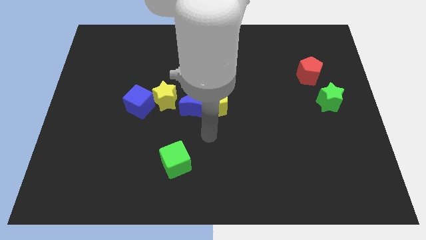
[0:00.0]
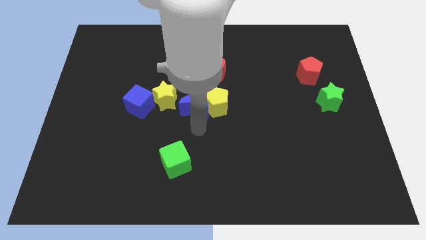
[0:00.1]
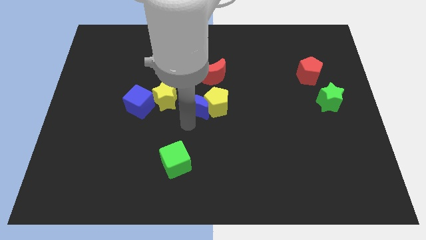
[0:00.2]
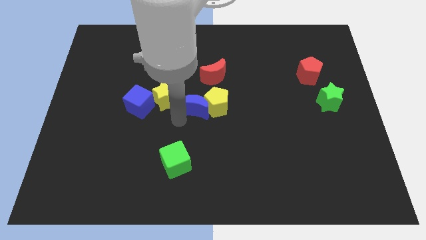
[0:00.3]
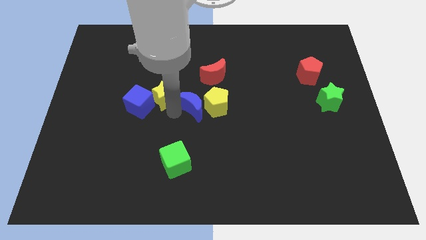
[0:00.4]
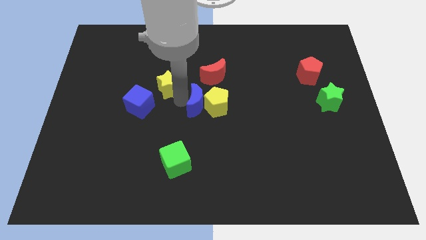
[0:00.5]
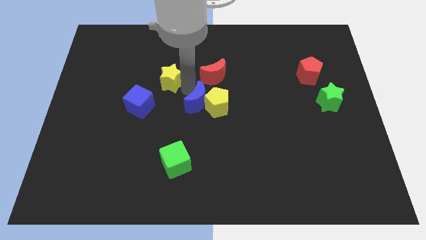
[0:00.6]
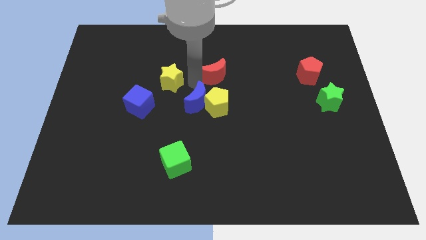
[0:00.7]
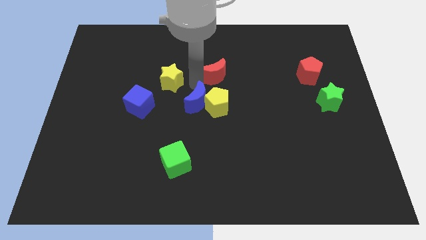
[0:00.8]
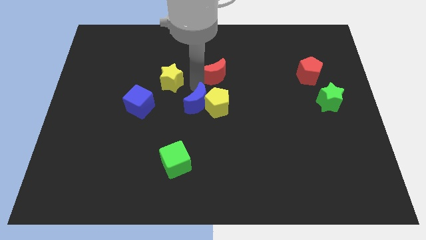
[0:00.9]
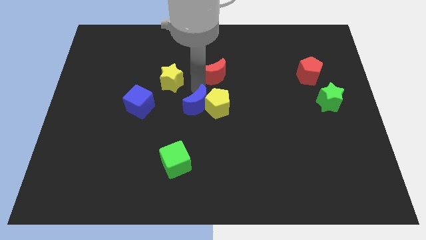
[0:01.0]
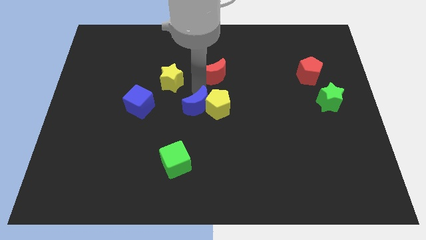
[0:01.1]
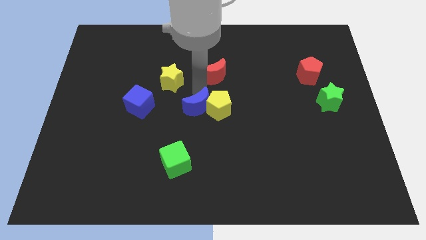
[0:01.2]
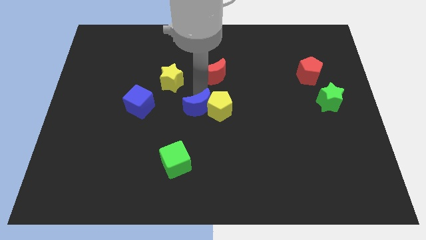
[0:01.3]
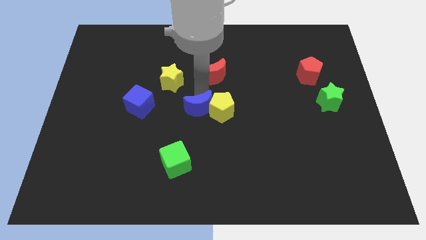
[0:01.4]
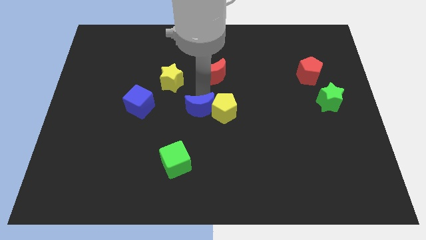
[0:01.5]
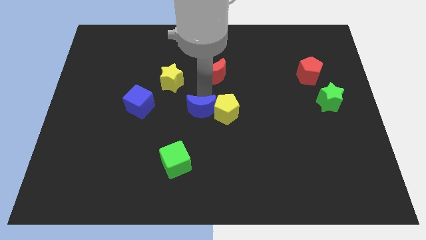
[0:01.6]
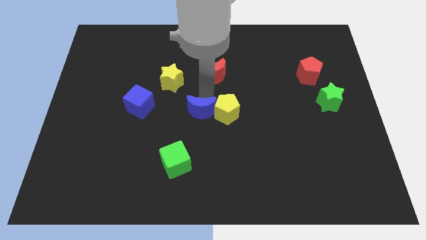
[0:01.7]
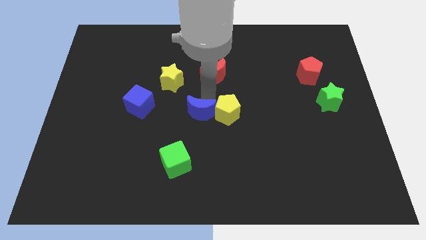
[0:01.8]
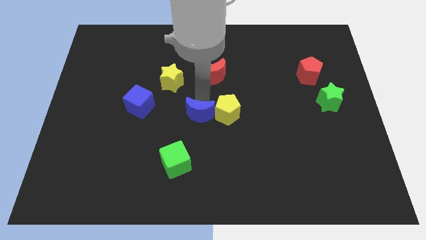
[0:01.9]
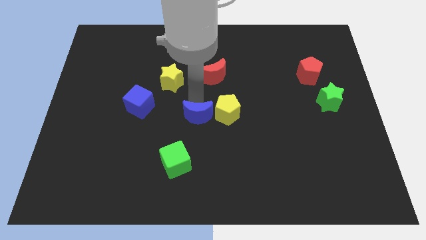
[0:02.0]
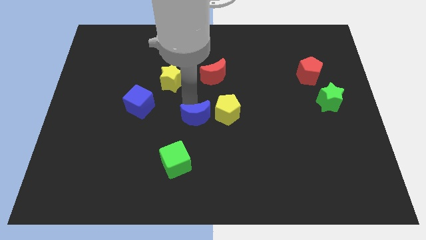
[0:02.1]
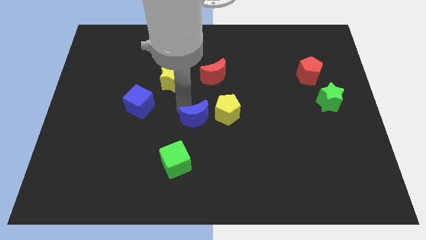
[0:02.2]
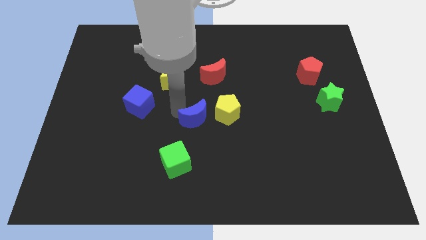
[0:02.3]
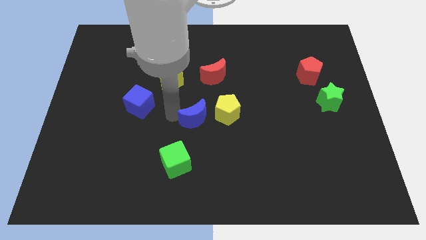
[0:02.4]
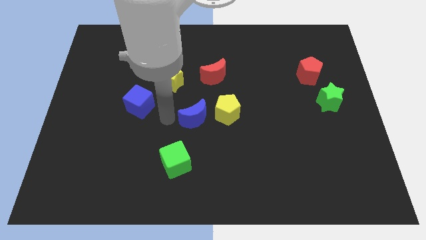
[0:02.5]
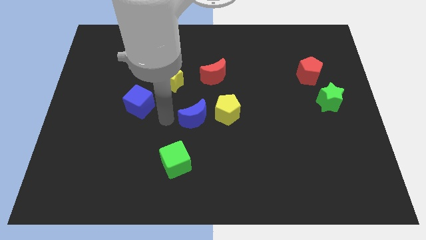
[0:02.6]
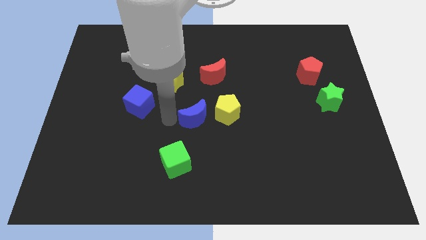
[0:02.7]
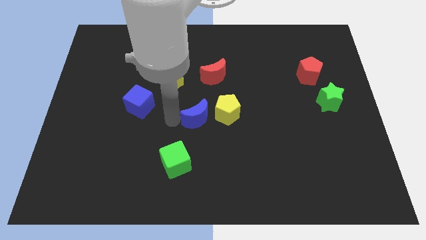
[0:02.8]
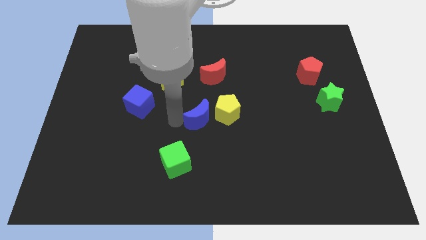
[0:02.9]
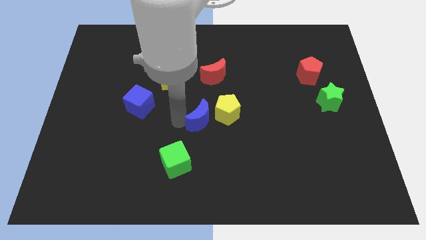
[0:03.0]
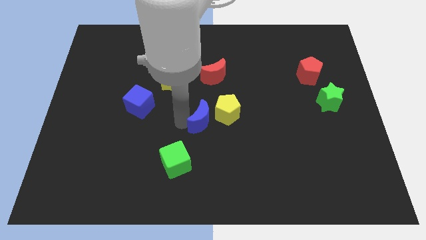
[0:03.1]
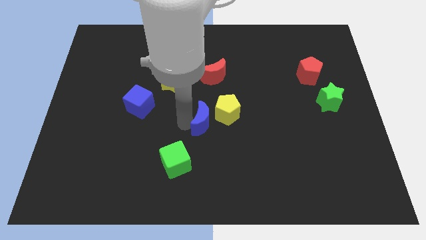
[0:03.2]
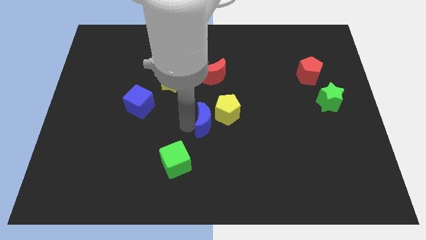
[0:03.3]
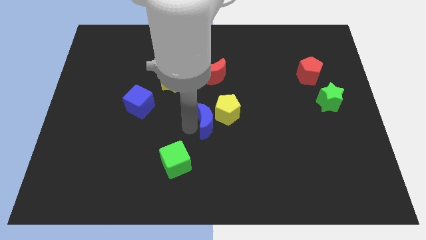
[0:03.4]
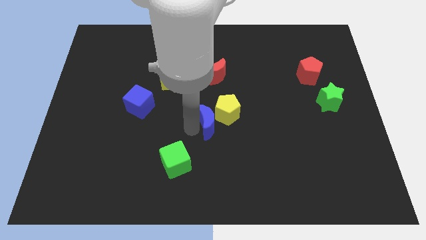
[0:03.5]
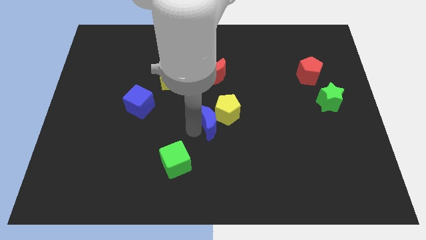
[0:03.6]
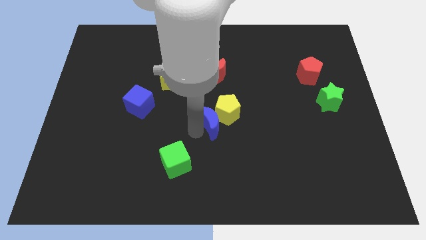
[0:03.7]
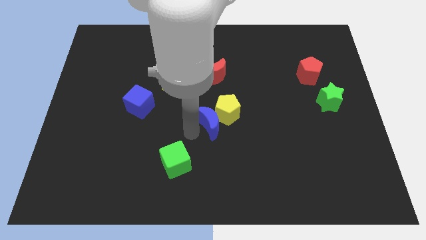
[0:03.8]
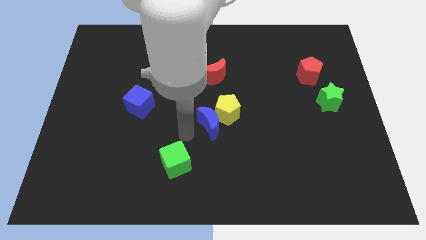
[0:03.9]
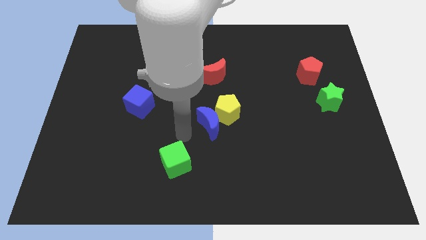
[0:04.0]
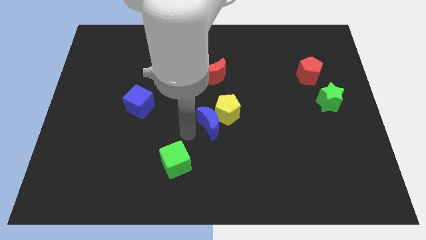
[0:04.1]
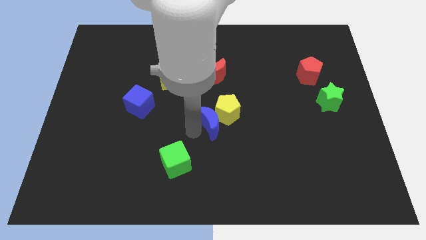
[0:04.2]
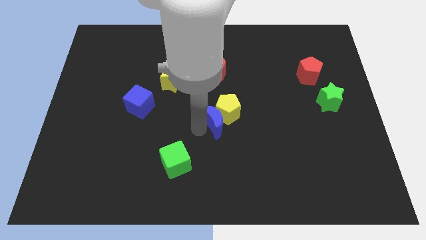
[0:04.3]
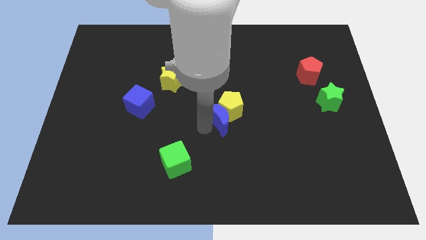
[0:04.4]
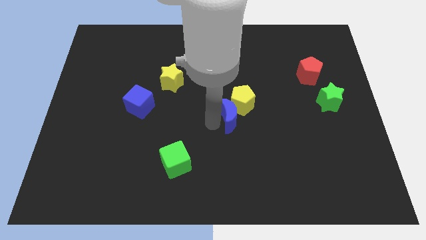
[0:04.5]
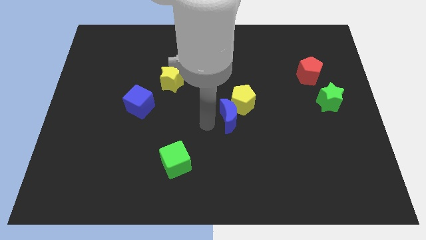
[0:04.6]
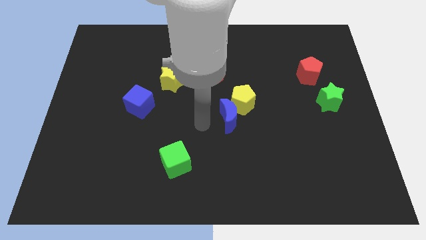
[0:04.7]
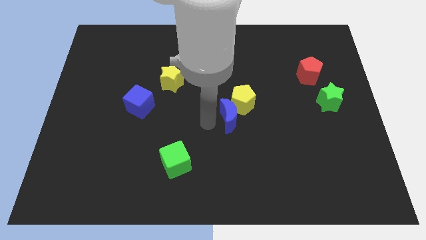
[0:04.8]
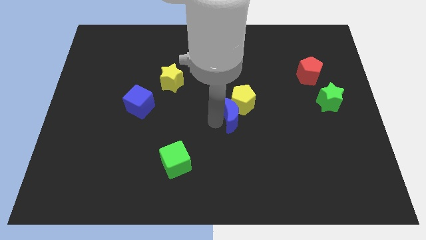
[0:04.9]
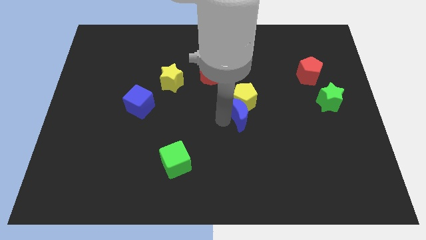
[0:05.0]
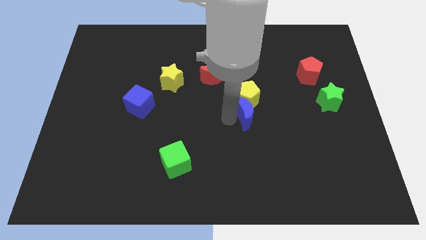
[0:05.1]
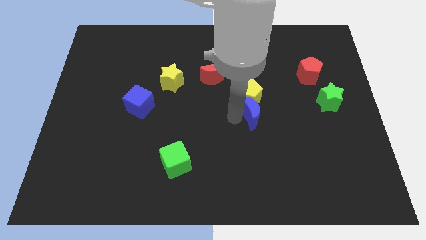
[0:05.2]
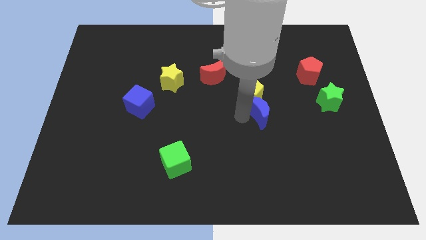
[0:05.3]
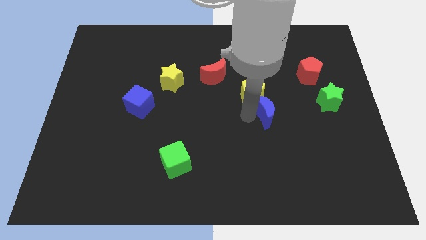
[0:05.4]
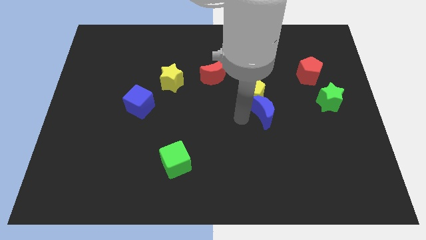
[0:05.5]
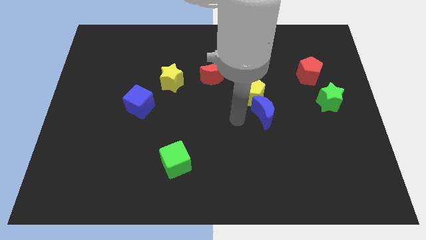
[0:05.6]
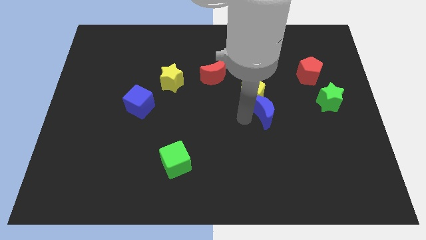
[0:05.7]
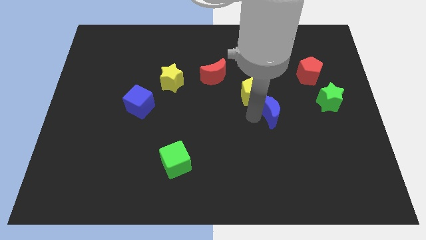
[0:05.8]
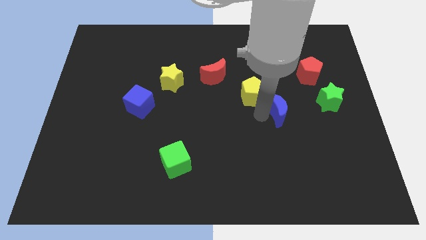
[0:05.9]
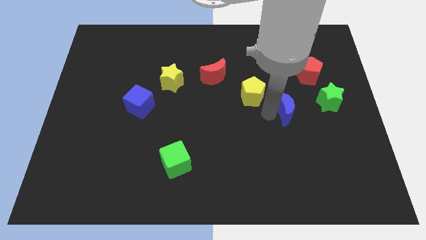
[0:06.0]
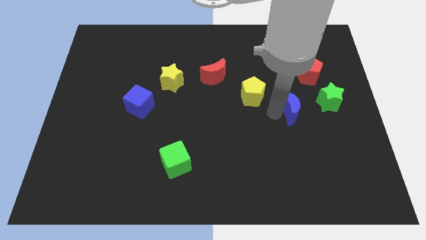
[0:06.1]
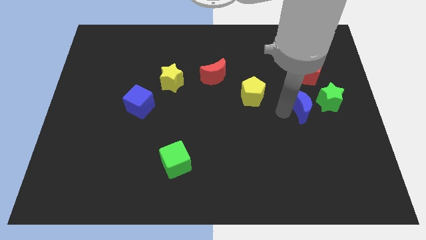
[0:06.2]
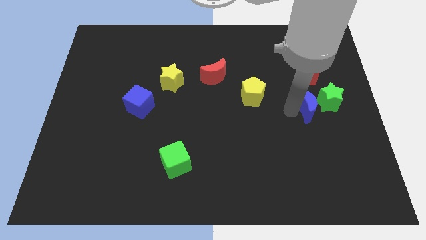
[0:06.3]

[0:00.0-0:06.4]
put the blue moon close to the green star

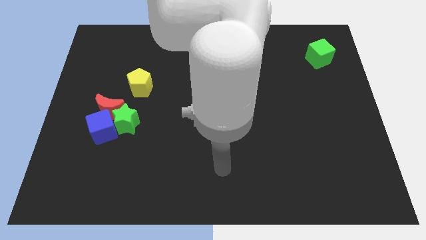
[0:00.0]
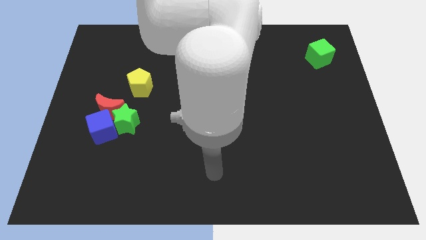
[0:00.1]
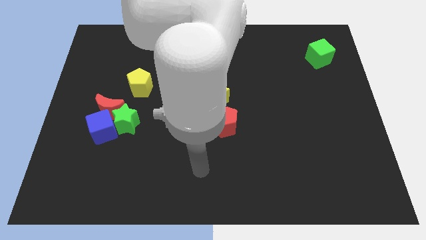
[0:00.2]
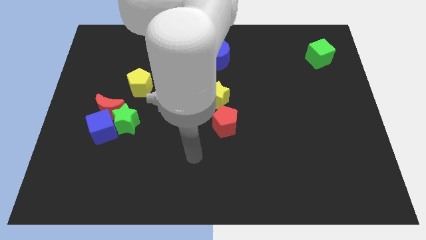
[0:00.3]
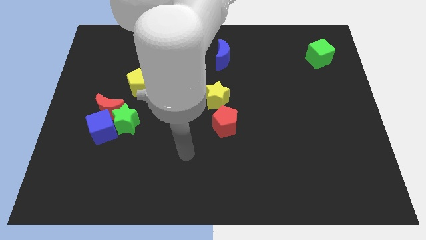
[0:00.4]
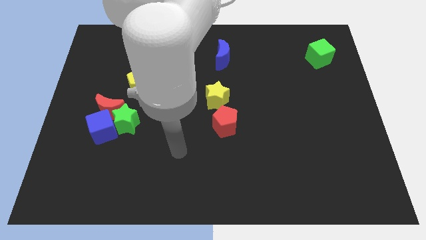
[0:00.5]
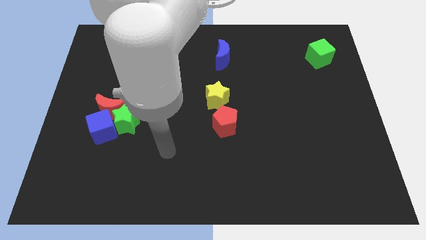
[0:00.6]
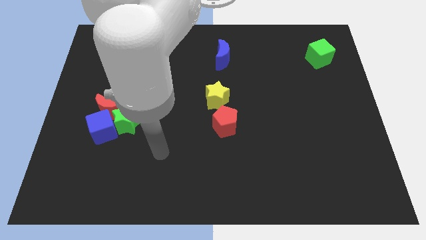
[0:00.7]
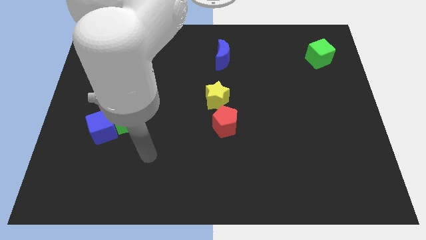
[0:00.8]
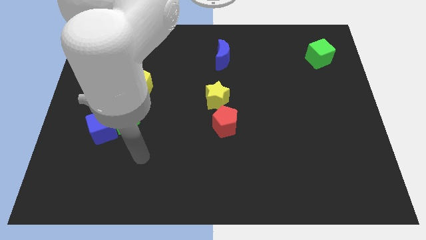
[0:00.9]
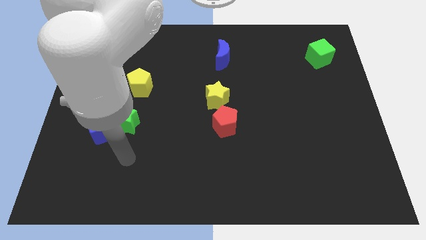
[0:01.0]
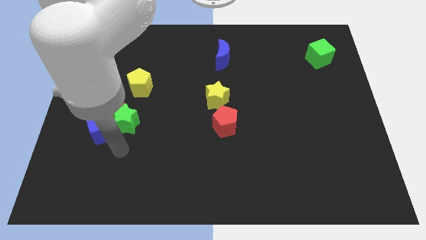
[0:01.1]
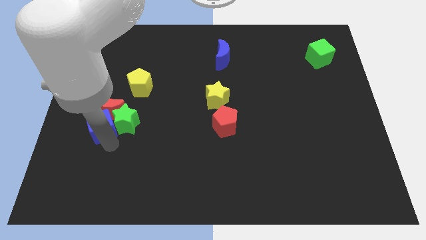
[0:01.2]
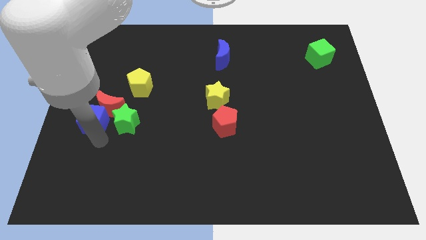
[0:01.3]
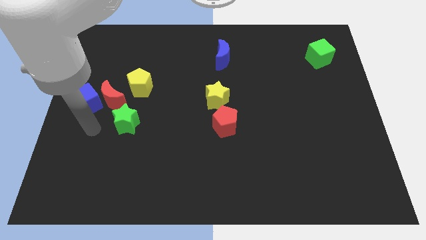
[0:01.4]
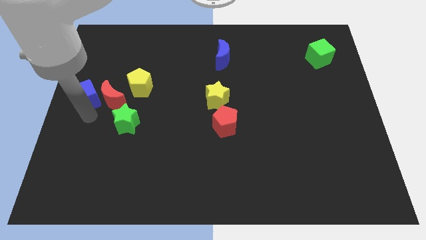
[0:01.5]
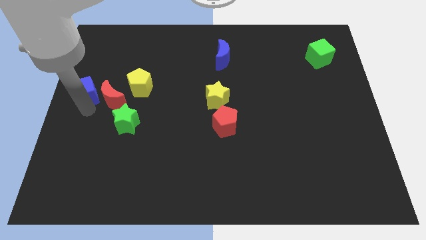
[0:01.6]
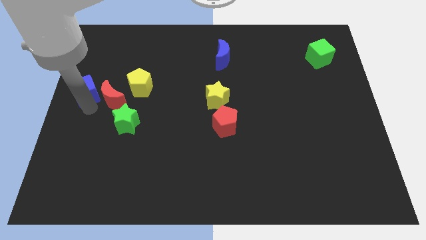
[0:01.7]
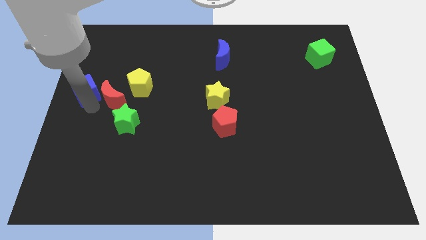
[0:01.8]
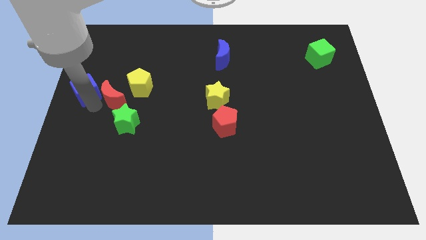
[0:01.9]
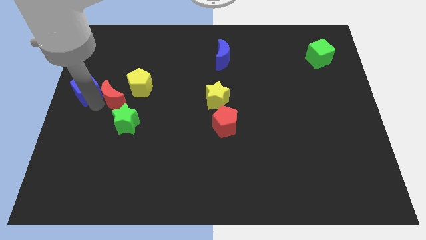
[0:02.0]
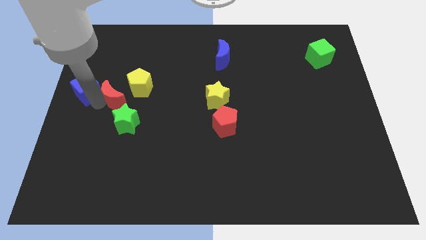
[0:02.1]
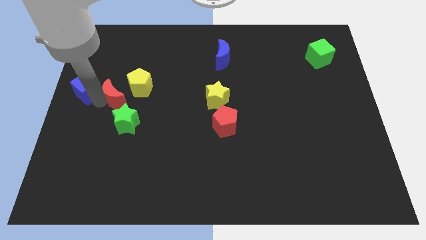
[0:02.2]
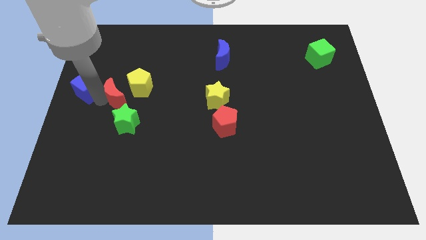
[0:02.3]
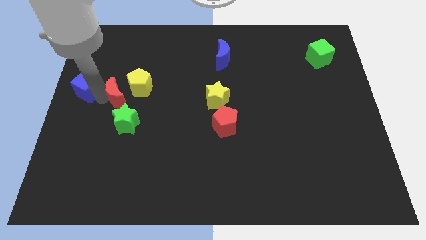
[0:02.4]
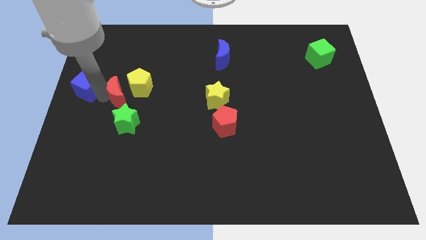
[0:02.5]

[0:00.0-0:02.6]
slide the red moon next to the yellow pentagon
